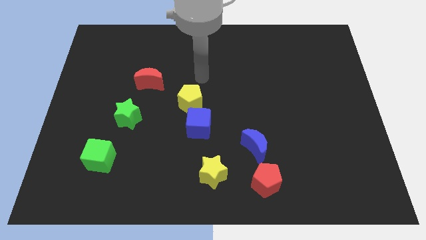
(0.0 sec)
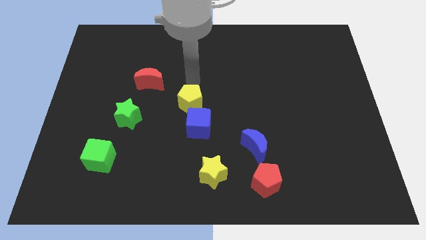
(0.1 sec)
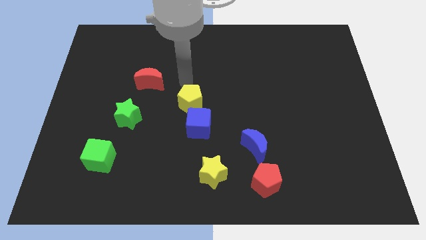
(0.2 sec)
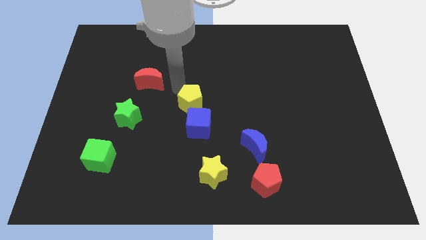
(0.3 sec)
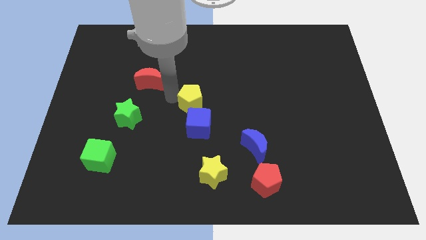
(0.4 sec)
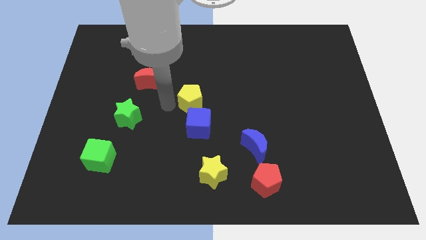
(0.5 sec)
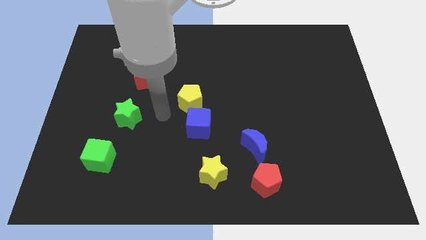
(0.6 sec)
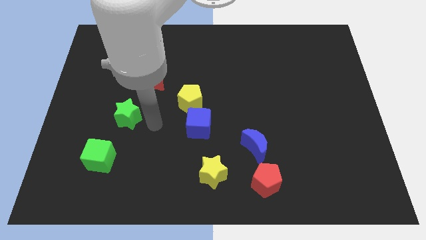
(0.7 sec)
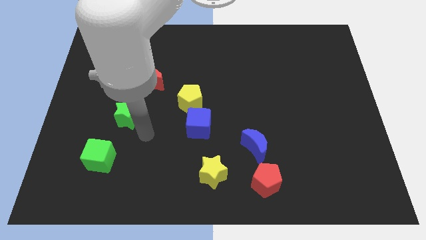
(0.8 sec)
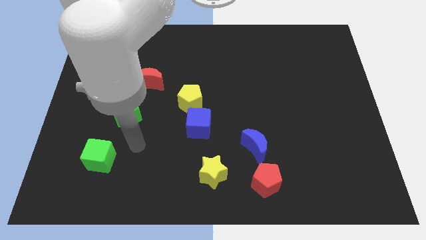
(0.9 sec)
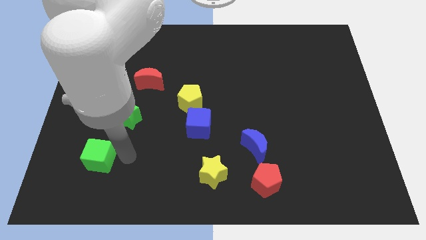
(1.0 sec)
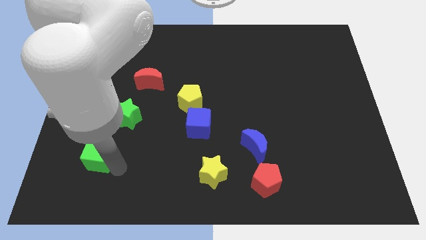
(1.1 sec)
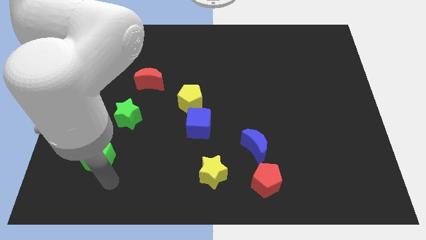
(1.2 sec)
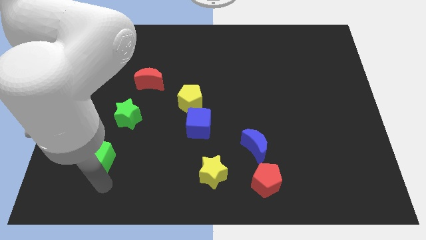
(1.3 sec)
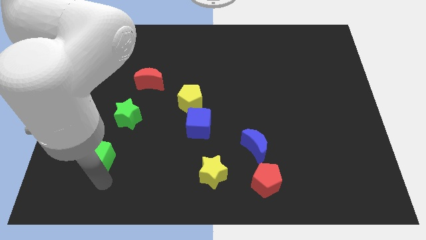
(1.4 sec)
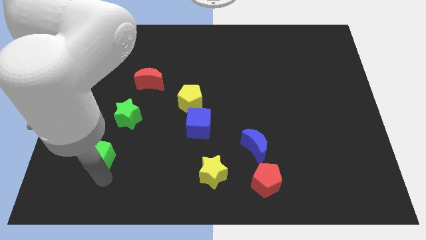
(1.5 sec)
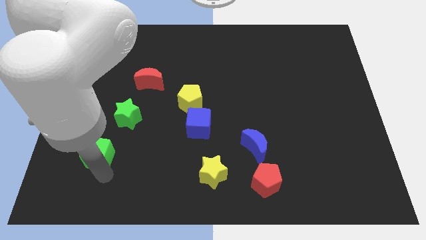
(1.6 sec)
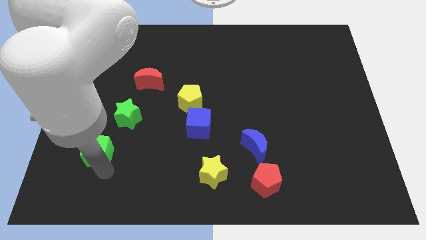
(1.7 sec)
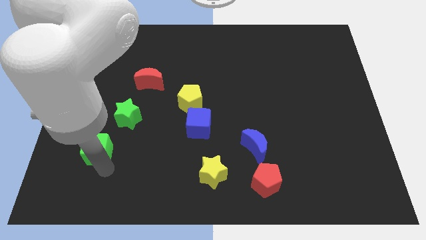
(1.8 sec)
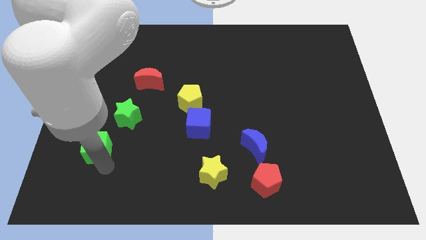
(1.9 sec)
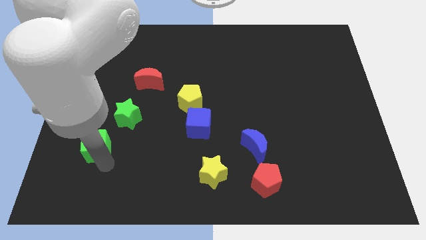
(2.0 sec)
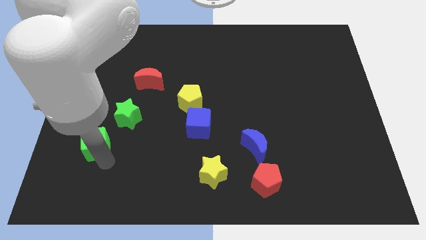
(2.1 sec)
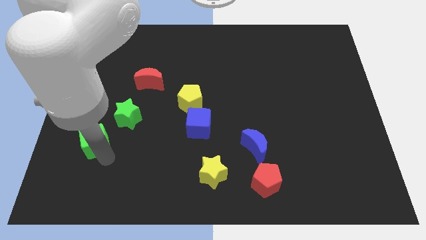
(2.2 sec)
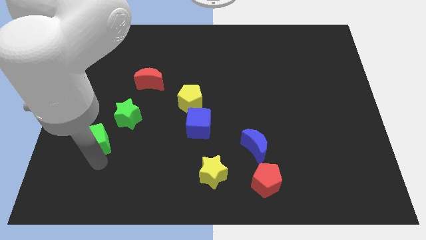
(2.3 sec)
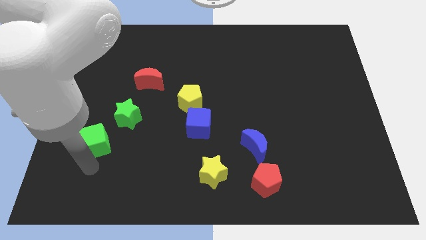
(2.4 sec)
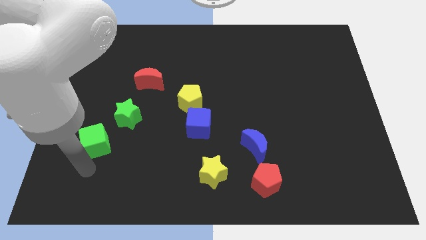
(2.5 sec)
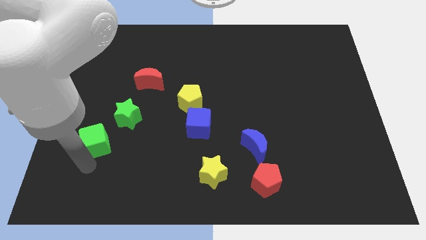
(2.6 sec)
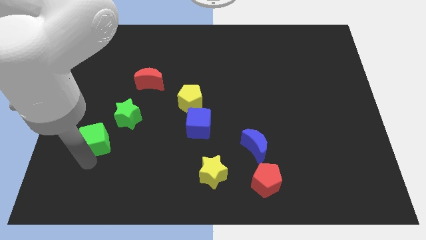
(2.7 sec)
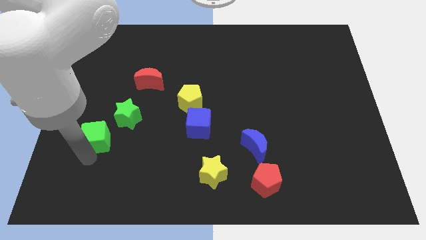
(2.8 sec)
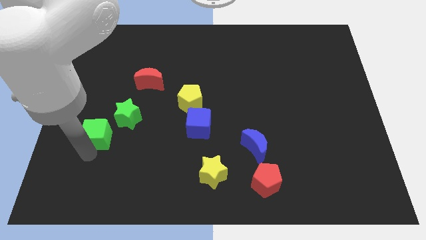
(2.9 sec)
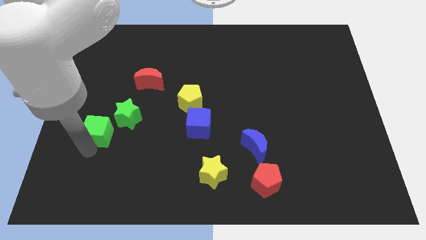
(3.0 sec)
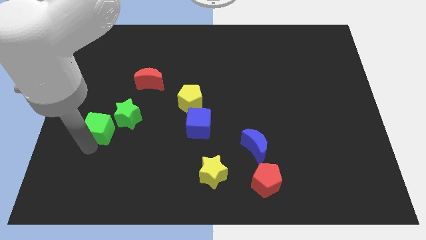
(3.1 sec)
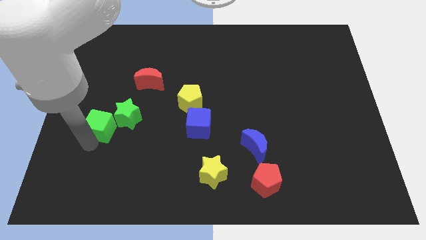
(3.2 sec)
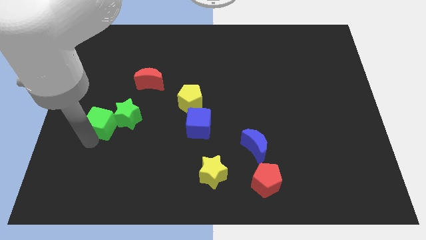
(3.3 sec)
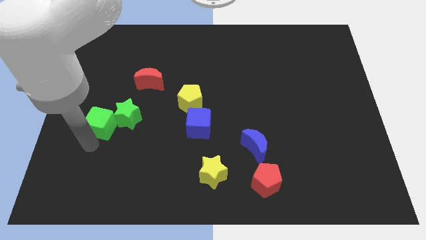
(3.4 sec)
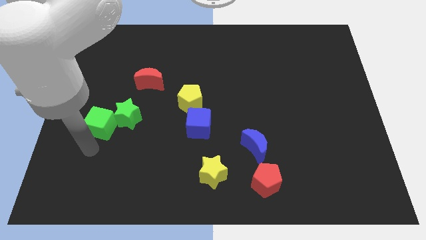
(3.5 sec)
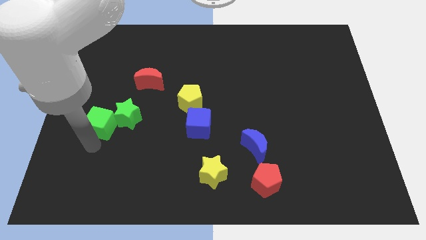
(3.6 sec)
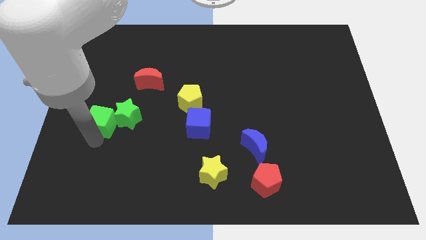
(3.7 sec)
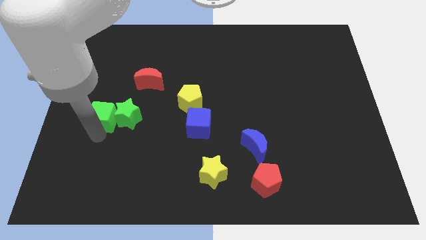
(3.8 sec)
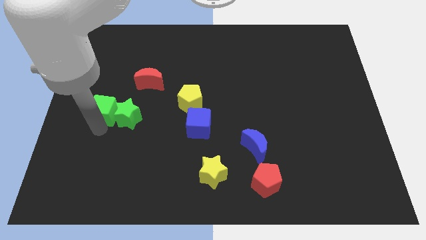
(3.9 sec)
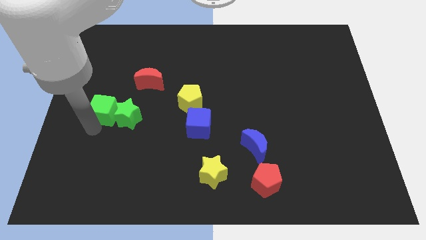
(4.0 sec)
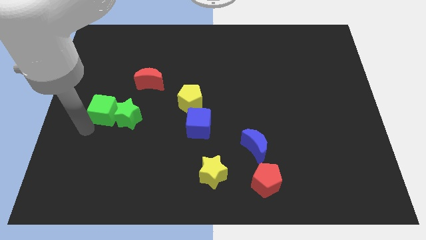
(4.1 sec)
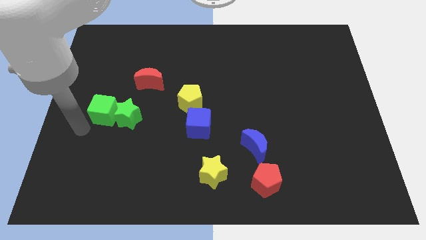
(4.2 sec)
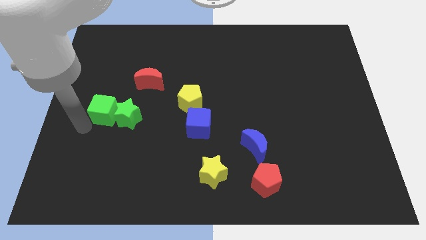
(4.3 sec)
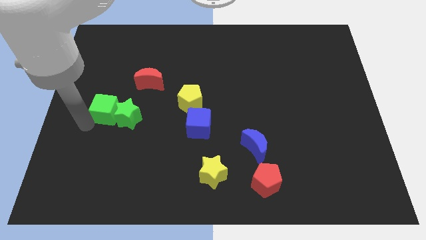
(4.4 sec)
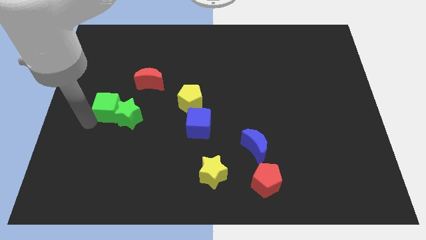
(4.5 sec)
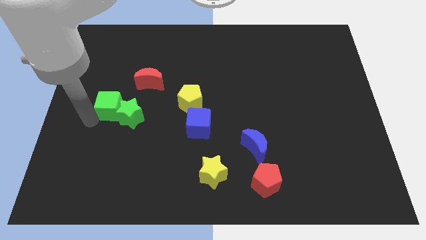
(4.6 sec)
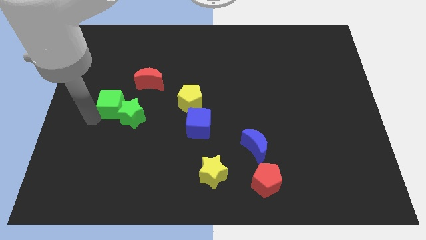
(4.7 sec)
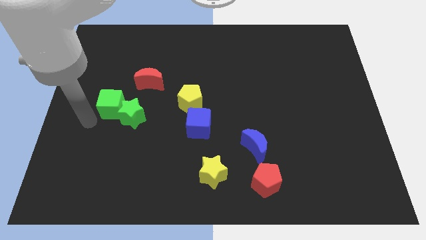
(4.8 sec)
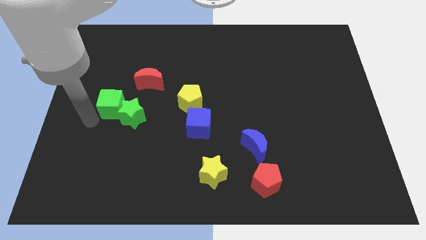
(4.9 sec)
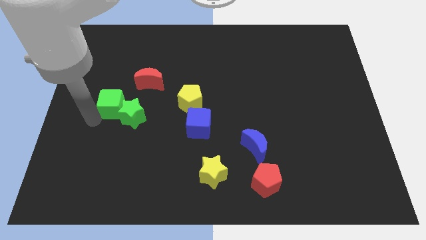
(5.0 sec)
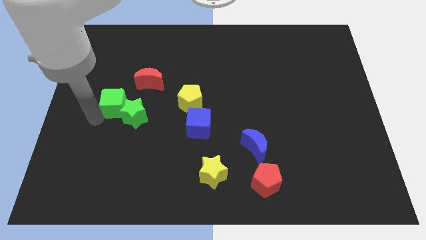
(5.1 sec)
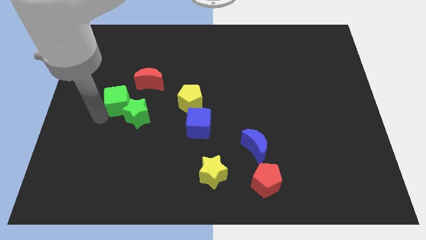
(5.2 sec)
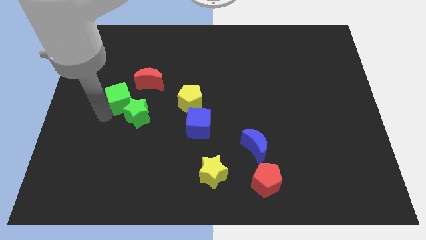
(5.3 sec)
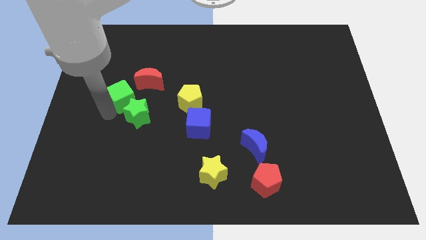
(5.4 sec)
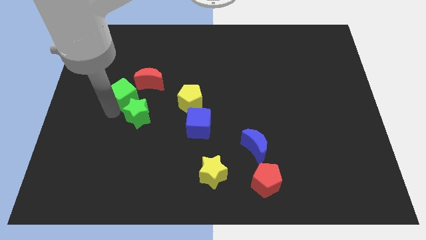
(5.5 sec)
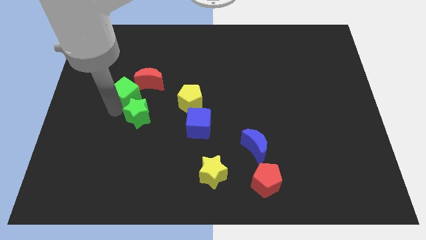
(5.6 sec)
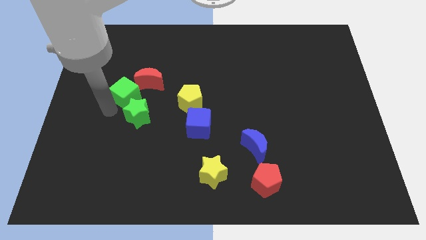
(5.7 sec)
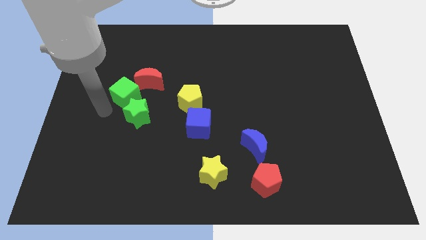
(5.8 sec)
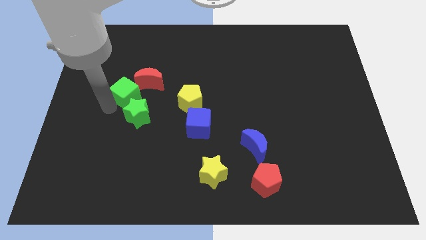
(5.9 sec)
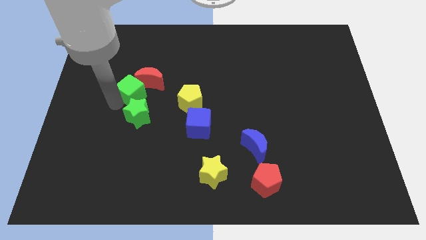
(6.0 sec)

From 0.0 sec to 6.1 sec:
move the green cube close to the red moon

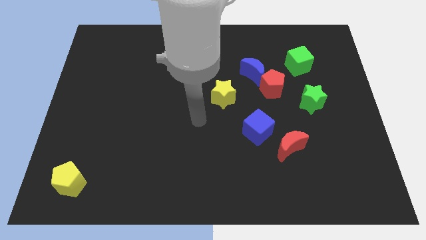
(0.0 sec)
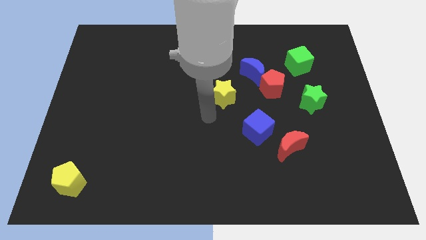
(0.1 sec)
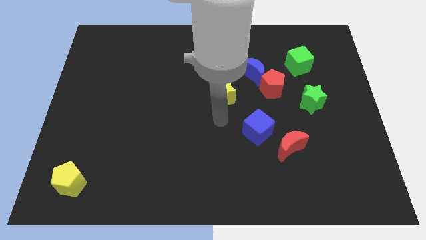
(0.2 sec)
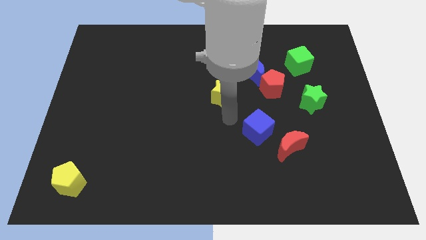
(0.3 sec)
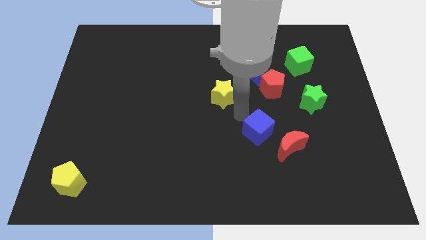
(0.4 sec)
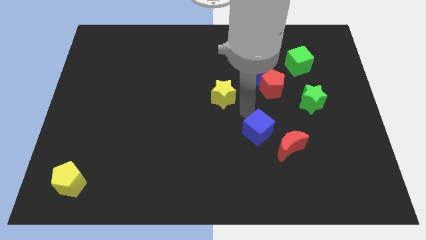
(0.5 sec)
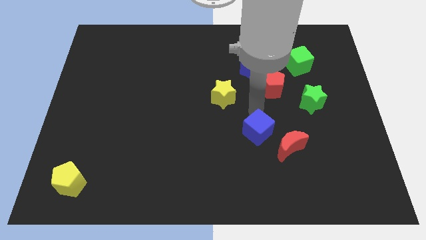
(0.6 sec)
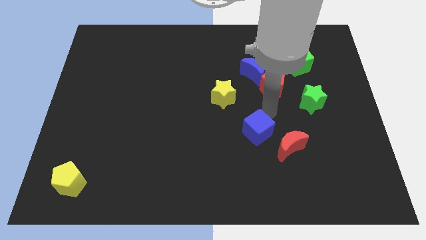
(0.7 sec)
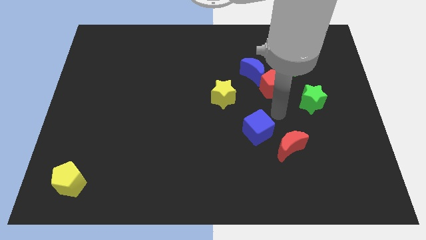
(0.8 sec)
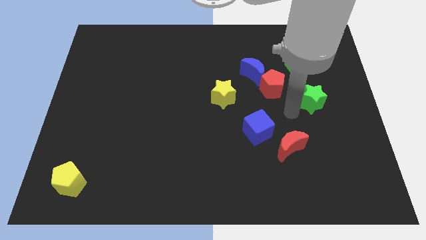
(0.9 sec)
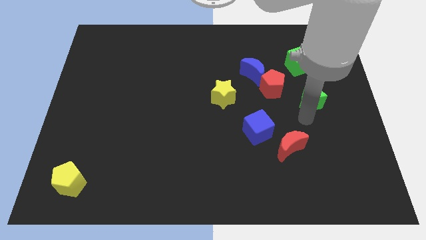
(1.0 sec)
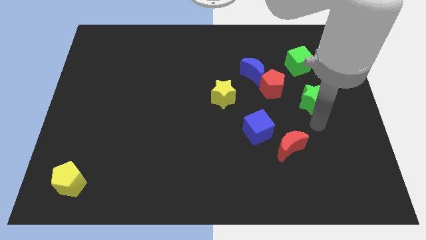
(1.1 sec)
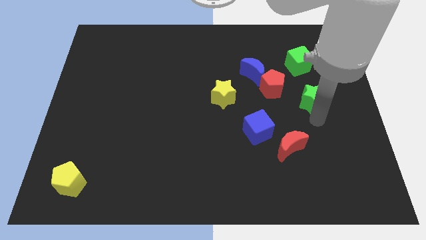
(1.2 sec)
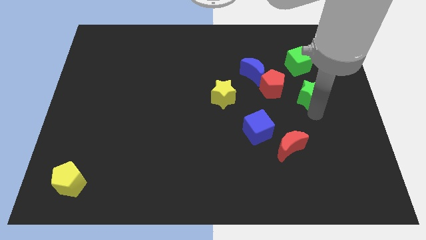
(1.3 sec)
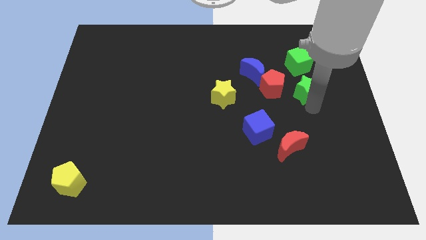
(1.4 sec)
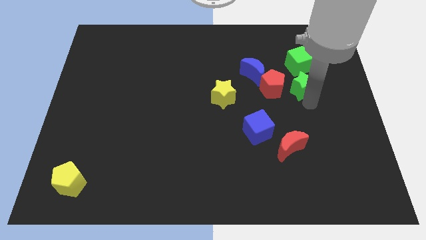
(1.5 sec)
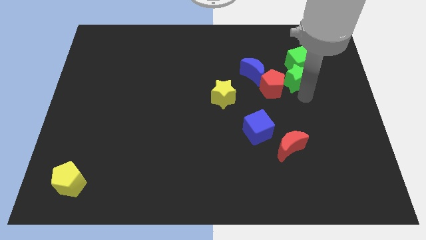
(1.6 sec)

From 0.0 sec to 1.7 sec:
slide the green star to the green cube
